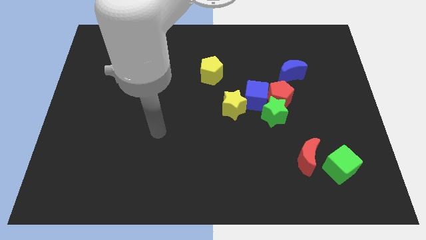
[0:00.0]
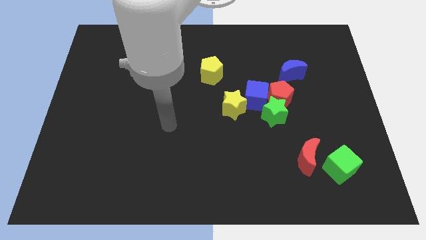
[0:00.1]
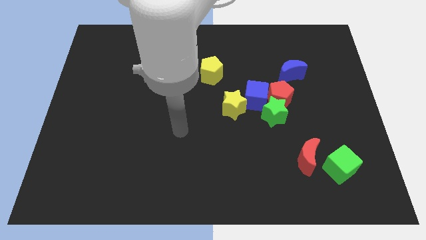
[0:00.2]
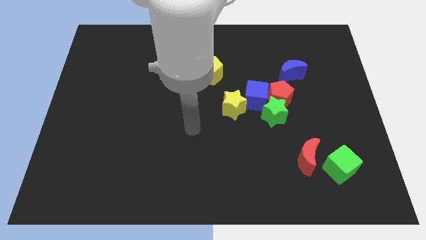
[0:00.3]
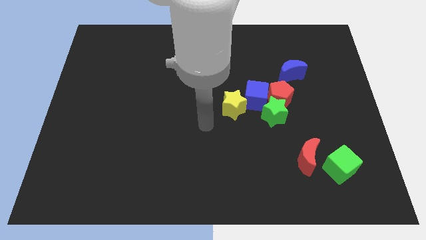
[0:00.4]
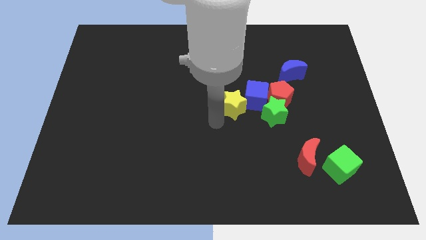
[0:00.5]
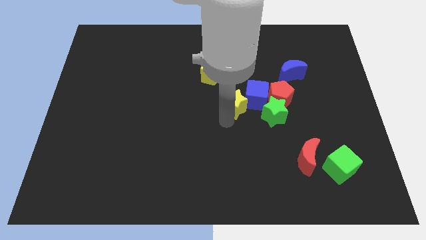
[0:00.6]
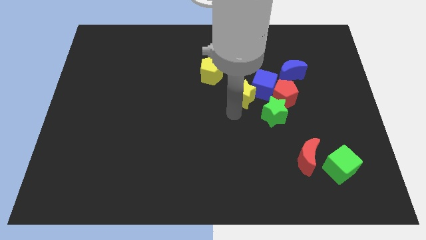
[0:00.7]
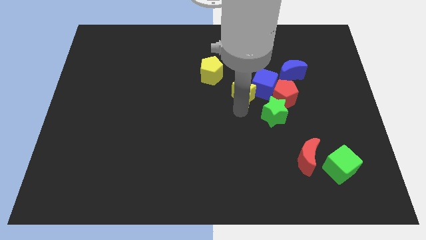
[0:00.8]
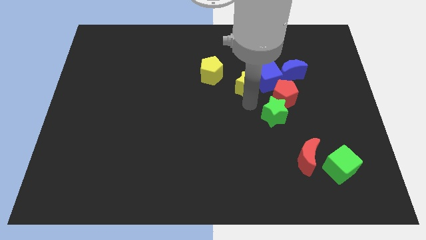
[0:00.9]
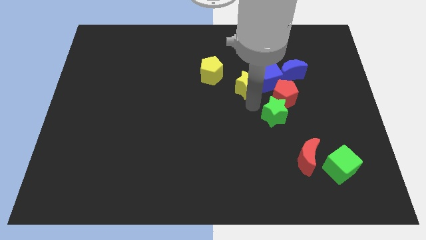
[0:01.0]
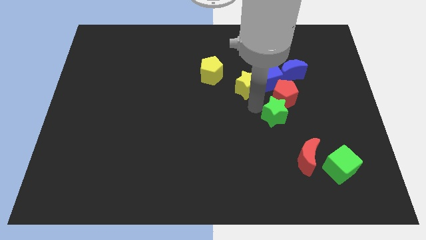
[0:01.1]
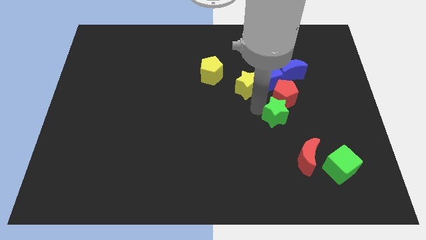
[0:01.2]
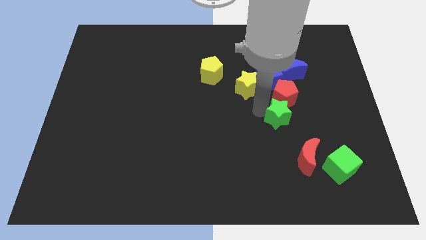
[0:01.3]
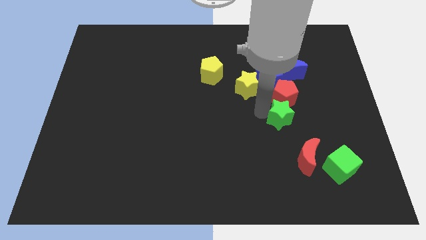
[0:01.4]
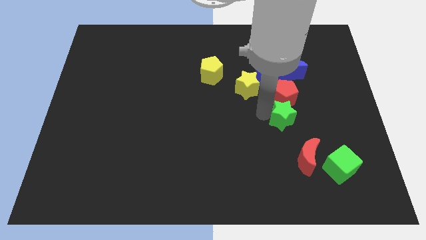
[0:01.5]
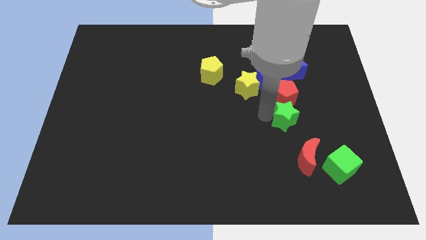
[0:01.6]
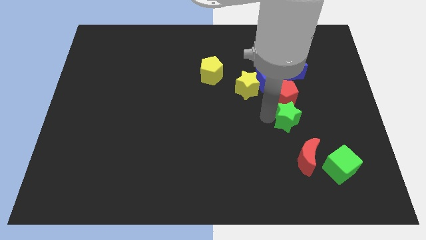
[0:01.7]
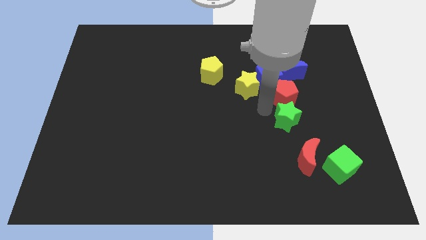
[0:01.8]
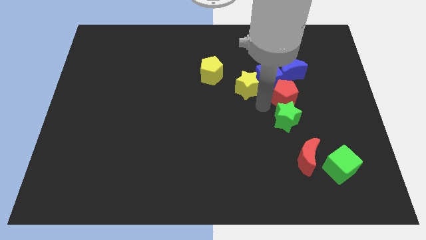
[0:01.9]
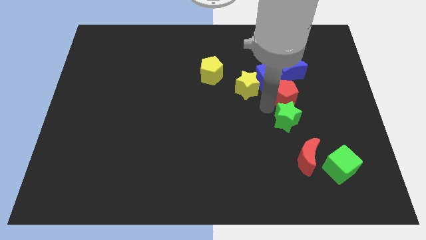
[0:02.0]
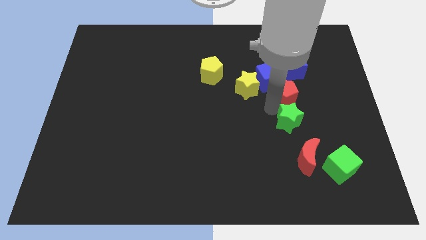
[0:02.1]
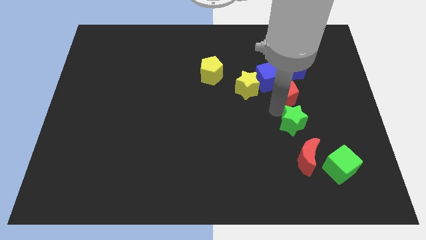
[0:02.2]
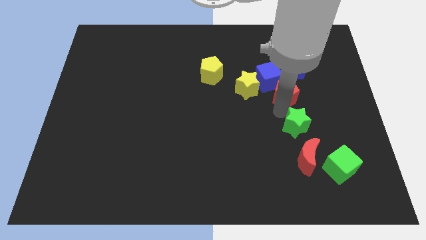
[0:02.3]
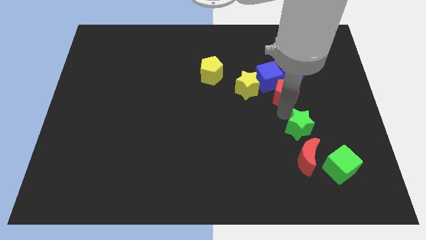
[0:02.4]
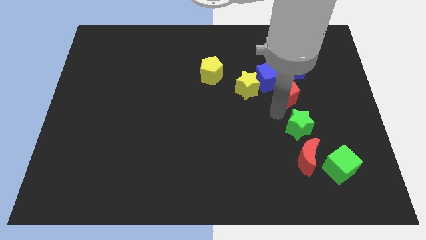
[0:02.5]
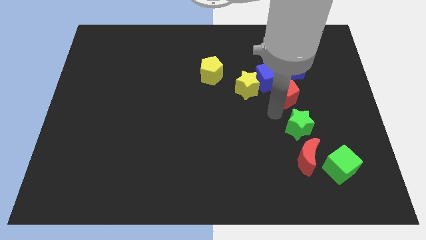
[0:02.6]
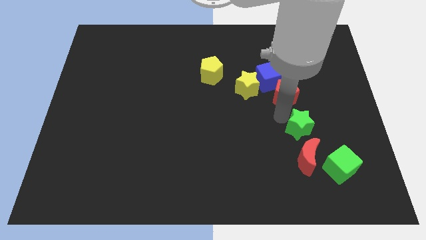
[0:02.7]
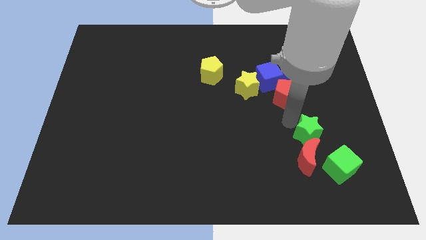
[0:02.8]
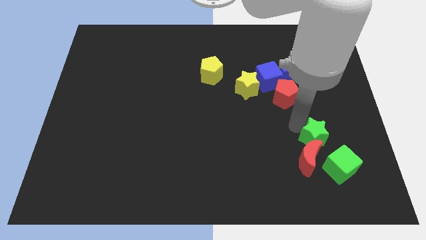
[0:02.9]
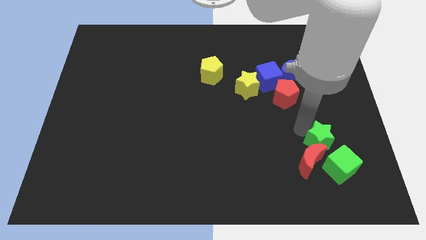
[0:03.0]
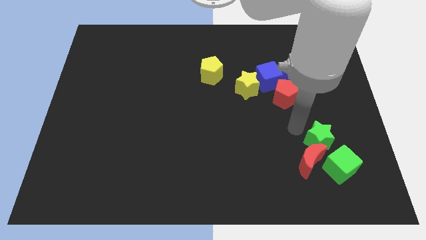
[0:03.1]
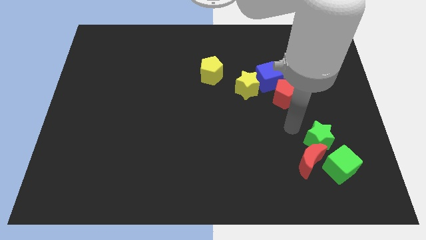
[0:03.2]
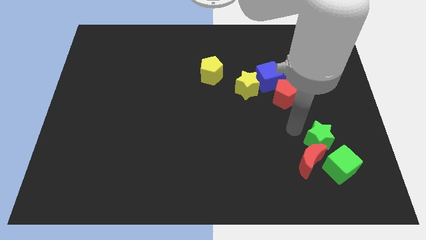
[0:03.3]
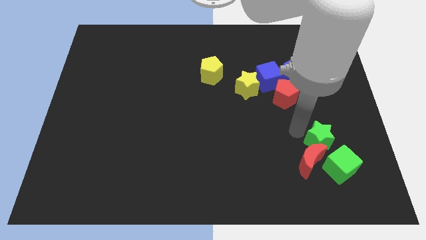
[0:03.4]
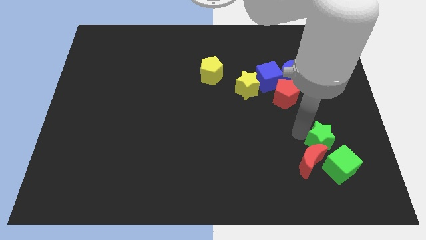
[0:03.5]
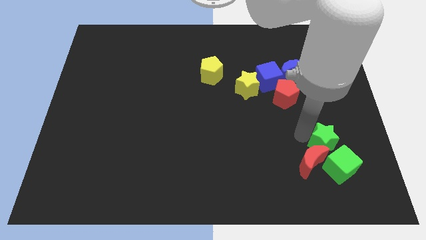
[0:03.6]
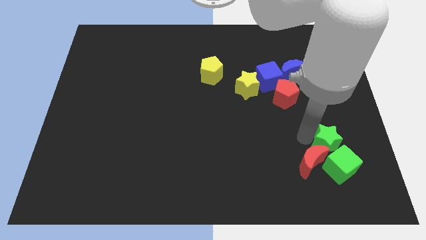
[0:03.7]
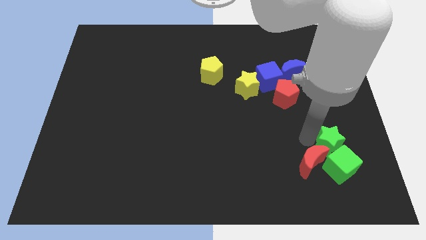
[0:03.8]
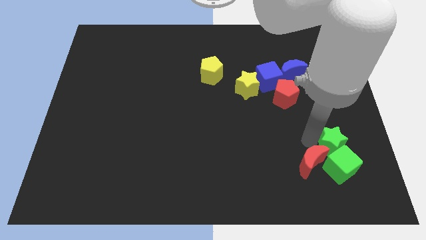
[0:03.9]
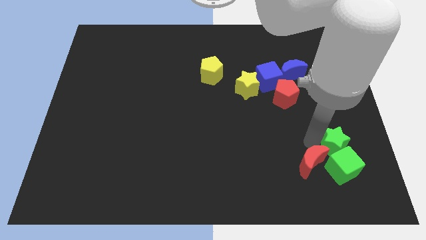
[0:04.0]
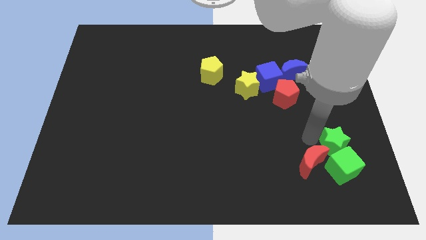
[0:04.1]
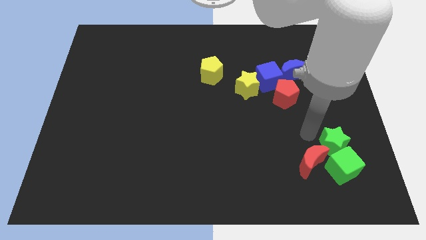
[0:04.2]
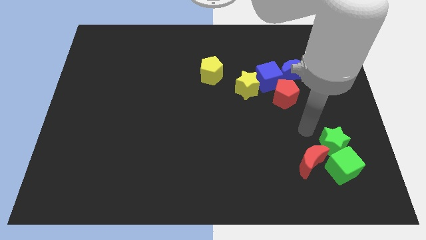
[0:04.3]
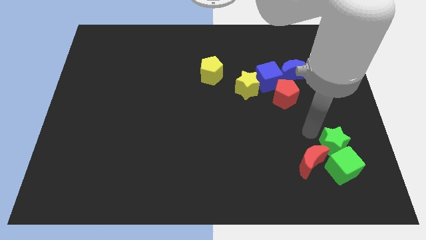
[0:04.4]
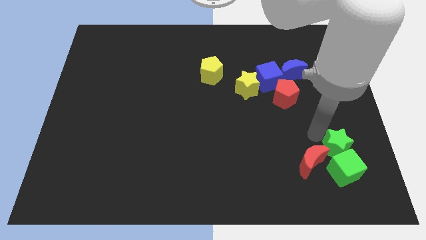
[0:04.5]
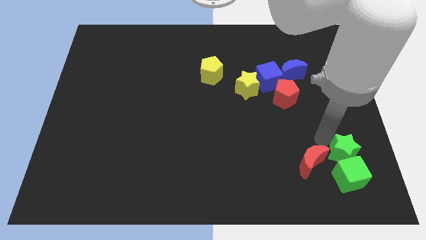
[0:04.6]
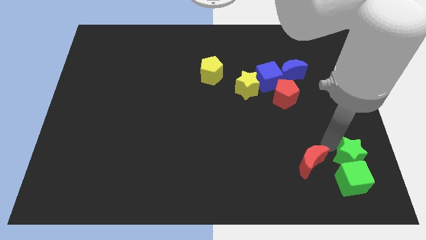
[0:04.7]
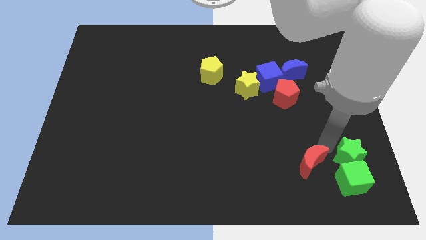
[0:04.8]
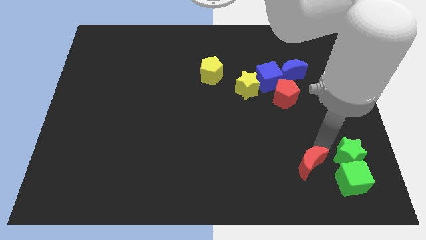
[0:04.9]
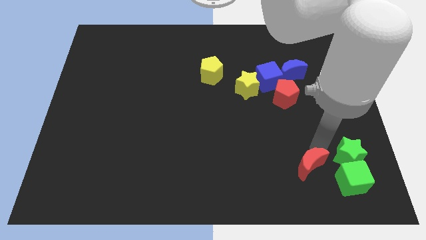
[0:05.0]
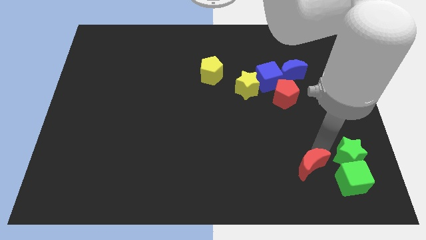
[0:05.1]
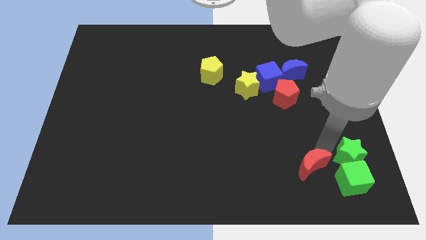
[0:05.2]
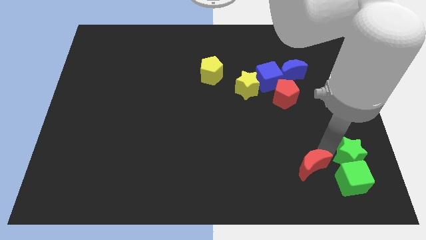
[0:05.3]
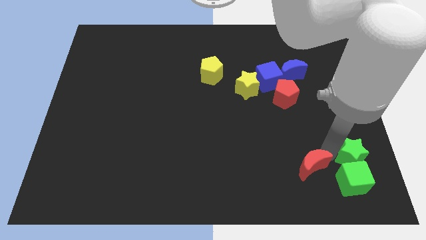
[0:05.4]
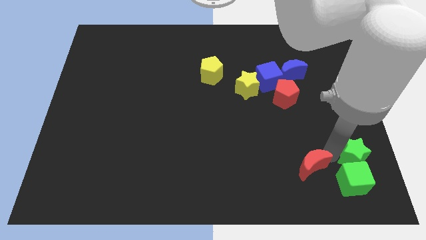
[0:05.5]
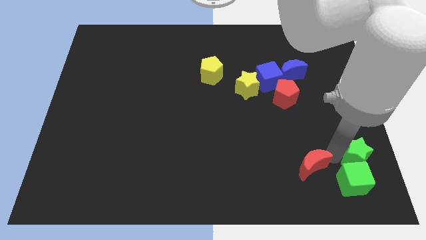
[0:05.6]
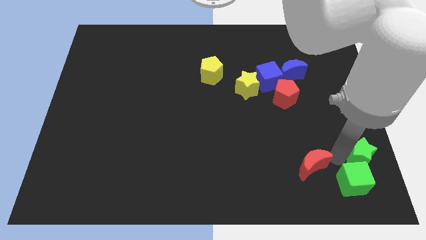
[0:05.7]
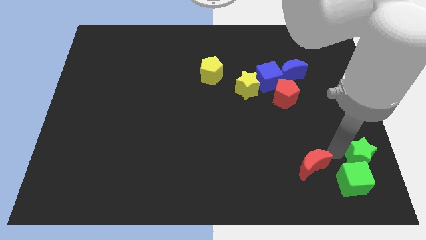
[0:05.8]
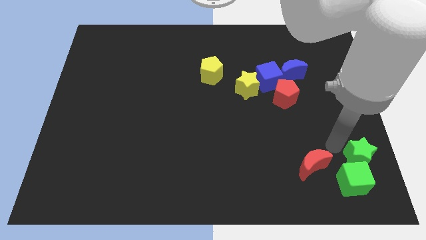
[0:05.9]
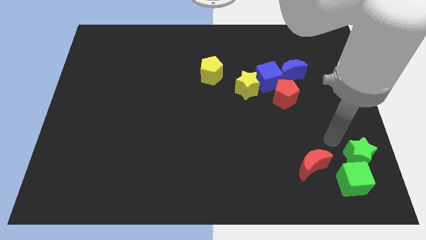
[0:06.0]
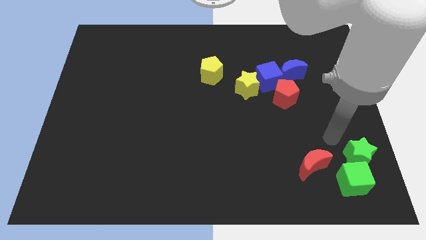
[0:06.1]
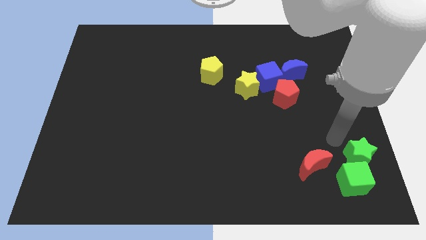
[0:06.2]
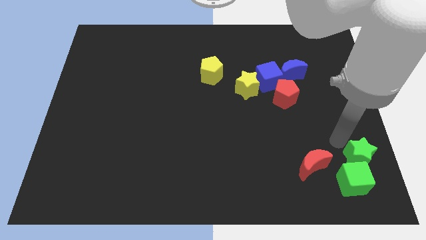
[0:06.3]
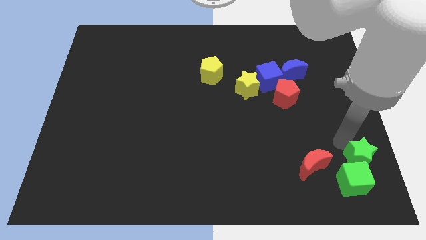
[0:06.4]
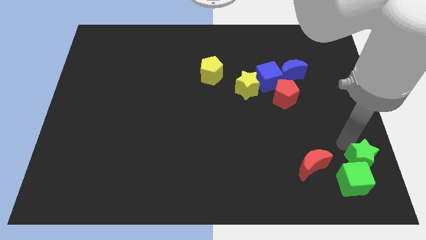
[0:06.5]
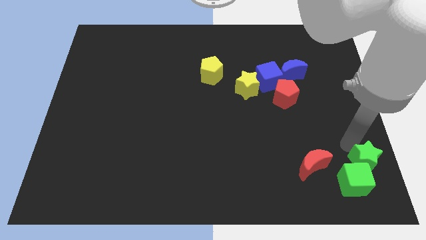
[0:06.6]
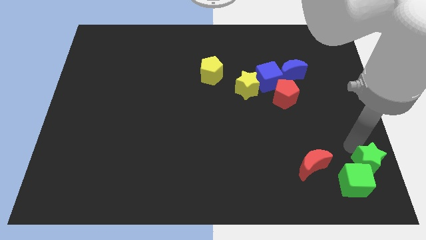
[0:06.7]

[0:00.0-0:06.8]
slide the green star to the bottom right of the board

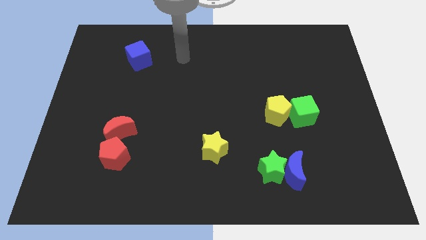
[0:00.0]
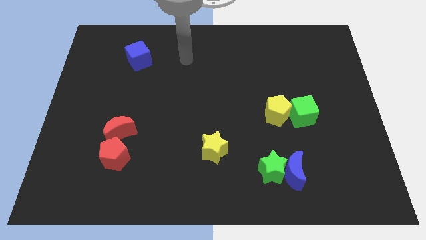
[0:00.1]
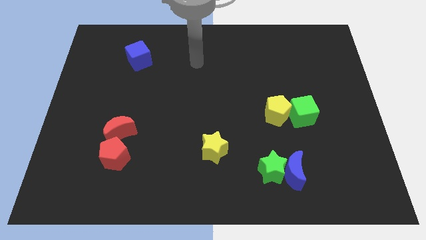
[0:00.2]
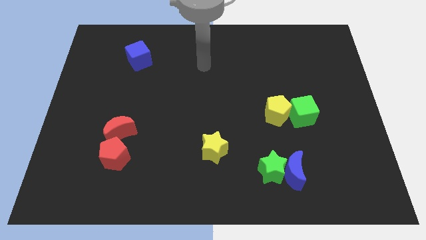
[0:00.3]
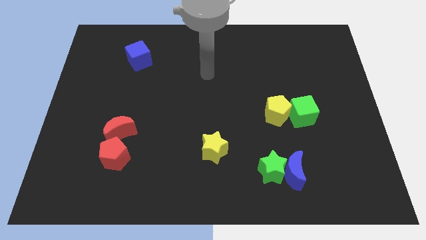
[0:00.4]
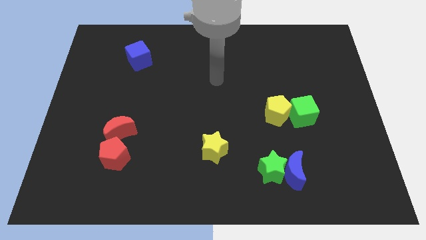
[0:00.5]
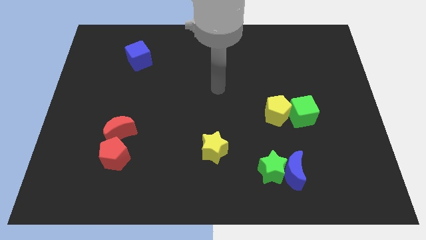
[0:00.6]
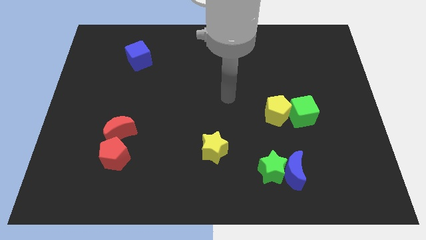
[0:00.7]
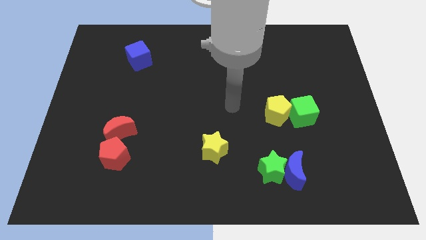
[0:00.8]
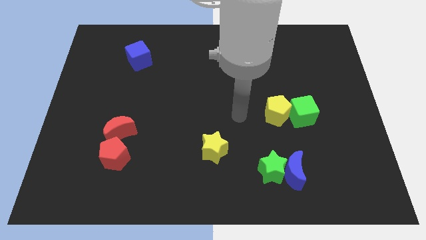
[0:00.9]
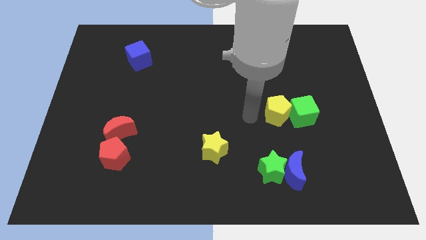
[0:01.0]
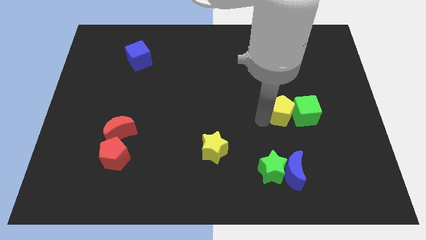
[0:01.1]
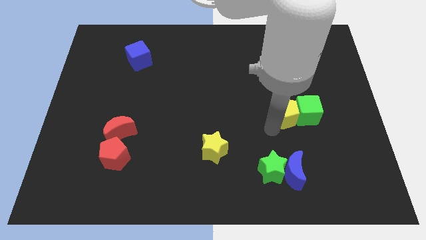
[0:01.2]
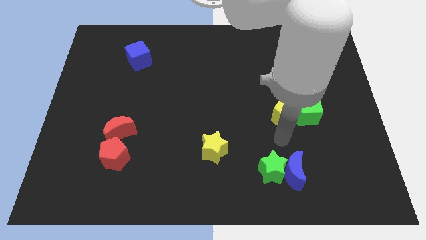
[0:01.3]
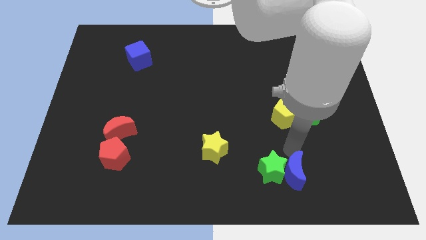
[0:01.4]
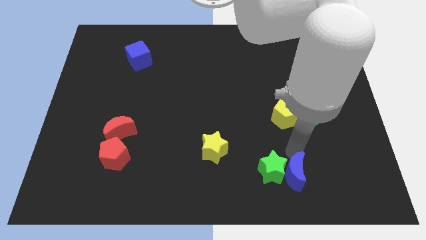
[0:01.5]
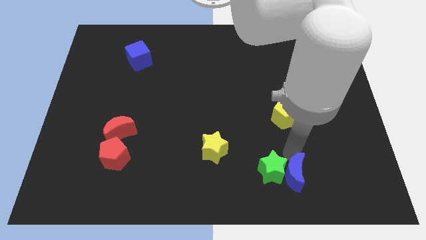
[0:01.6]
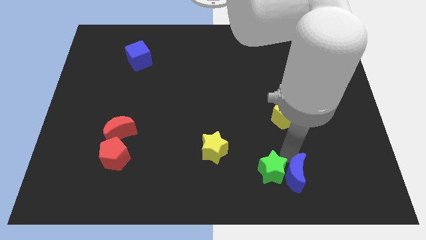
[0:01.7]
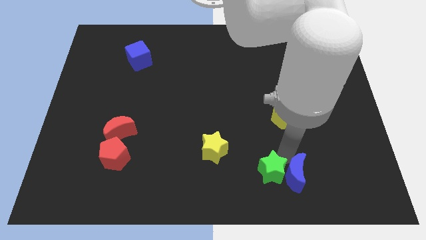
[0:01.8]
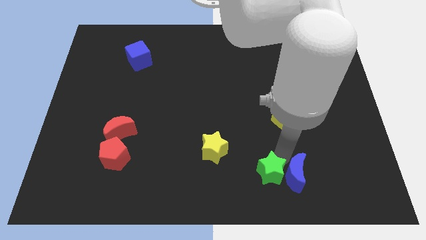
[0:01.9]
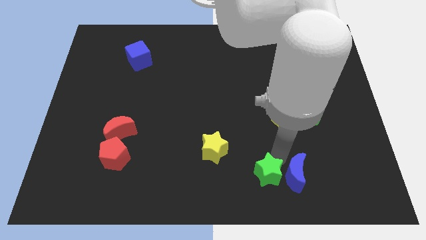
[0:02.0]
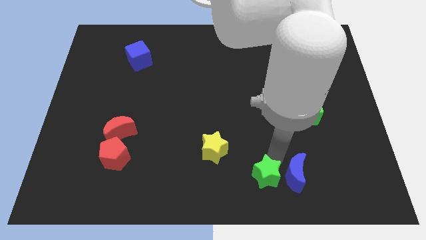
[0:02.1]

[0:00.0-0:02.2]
move the green star to the bottom
